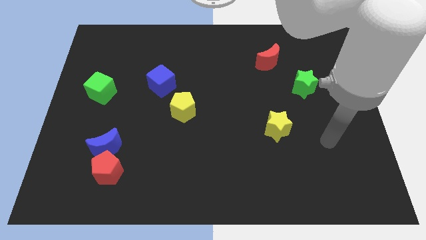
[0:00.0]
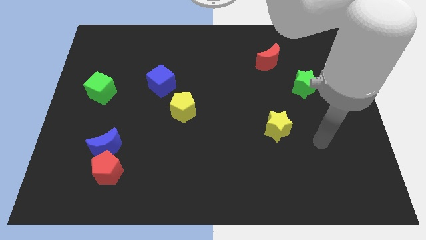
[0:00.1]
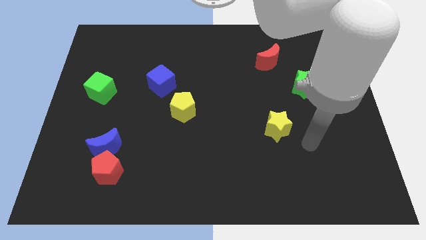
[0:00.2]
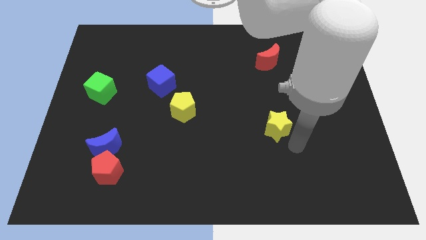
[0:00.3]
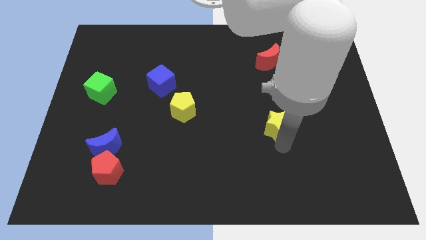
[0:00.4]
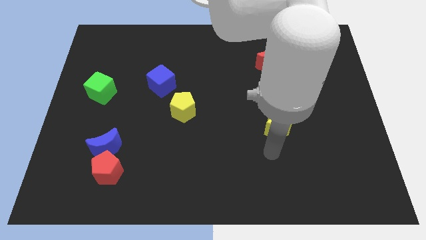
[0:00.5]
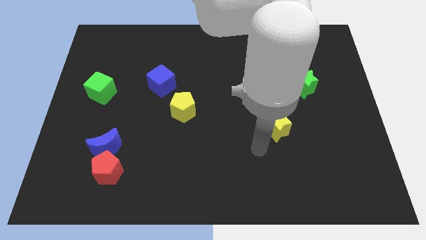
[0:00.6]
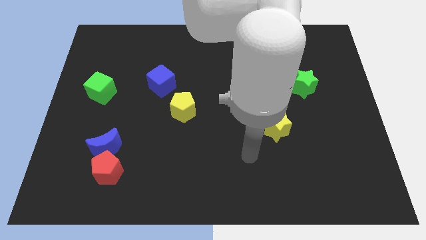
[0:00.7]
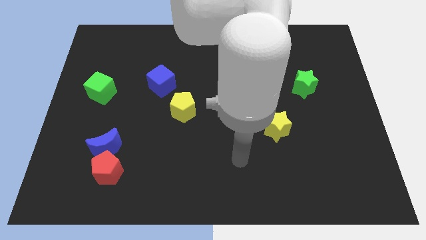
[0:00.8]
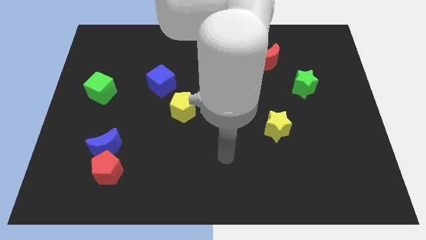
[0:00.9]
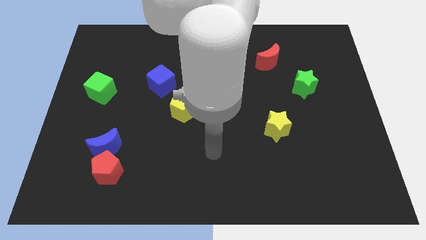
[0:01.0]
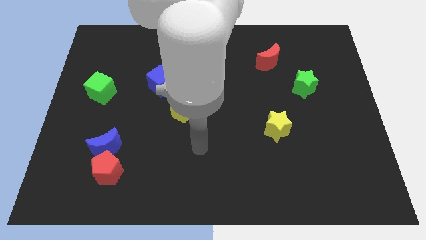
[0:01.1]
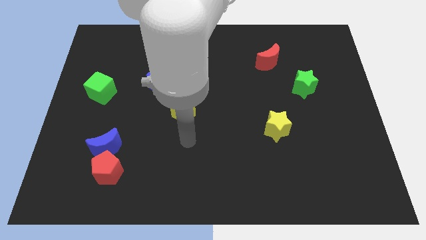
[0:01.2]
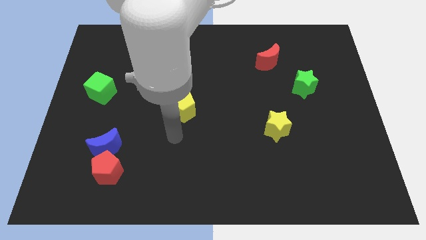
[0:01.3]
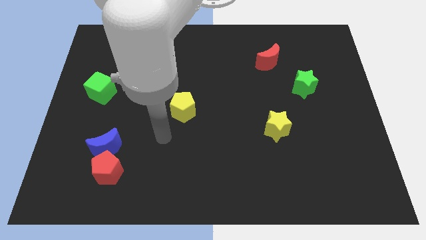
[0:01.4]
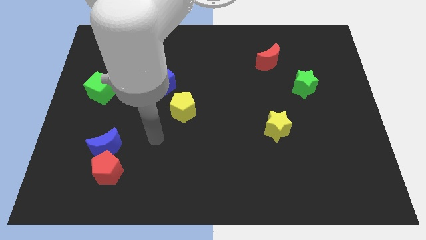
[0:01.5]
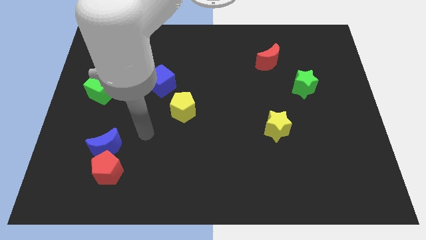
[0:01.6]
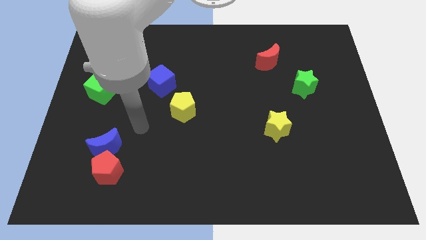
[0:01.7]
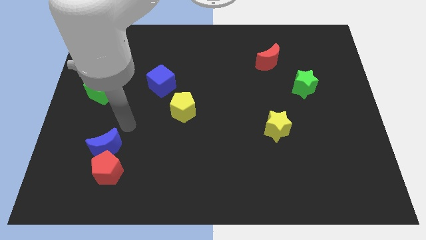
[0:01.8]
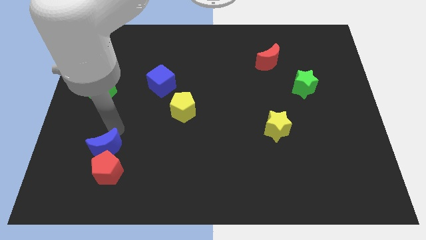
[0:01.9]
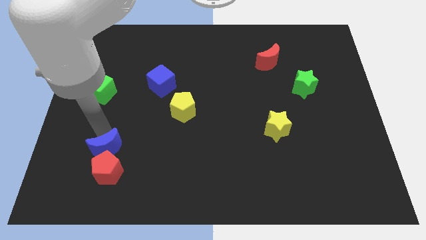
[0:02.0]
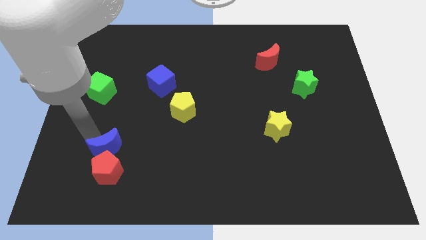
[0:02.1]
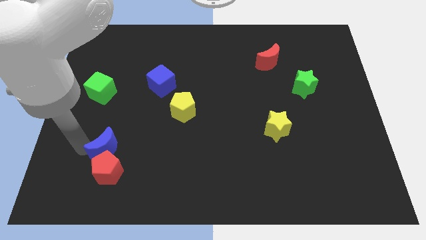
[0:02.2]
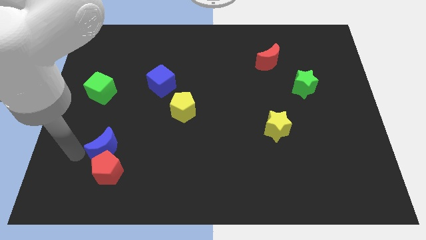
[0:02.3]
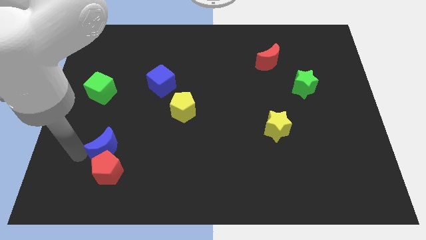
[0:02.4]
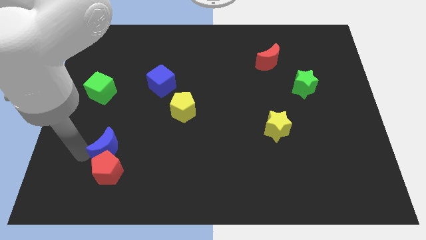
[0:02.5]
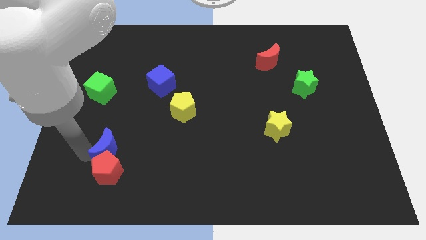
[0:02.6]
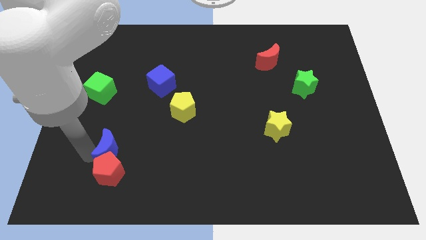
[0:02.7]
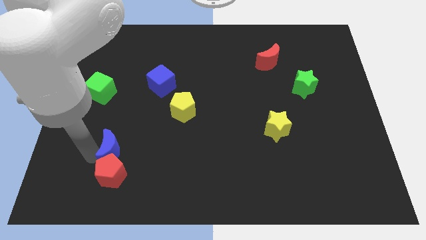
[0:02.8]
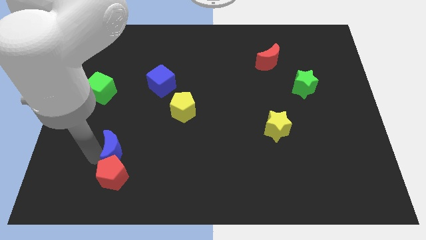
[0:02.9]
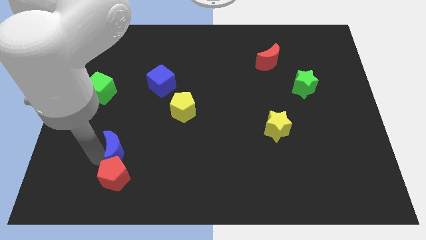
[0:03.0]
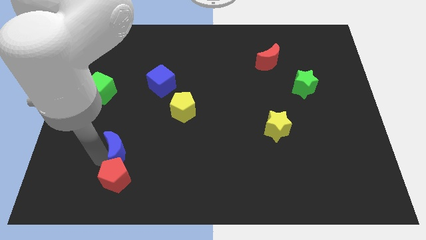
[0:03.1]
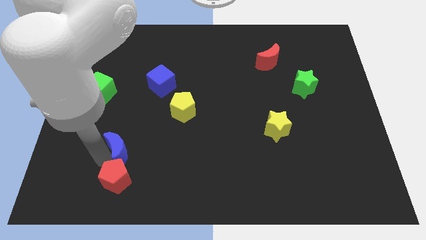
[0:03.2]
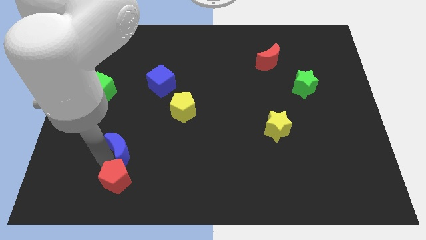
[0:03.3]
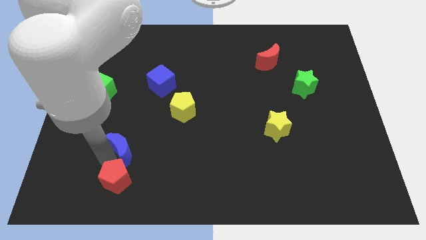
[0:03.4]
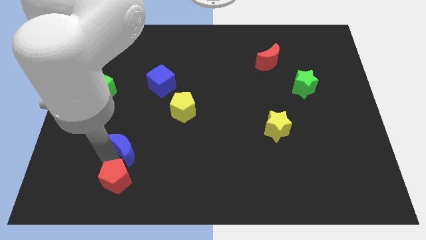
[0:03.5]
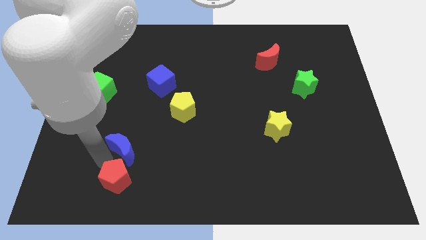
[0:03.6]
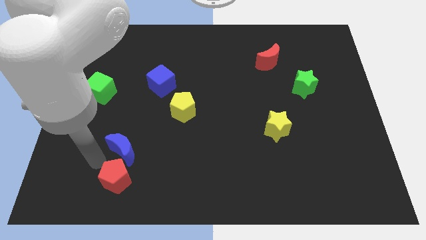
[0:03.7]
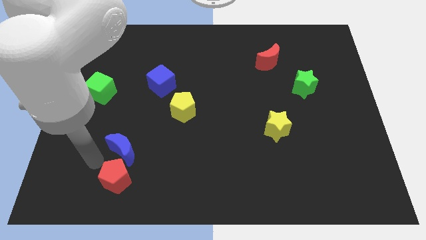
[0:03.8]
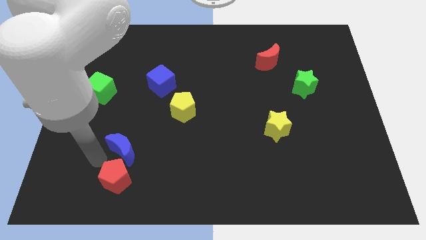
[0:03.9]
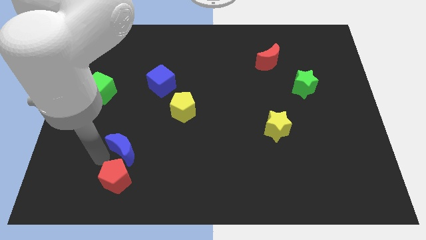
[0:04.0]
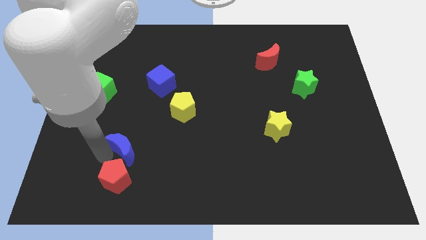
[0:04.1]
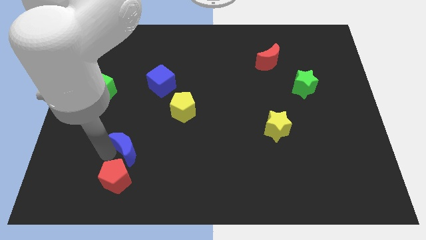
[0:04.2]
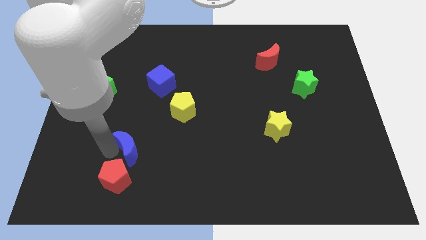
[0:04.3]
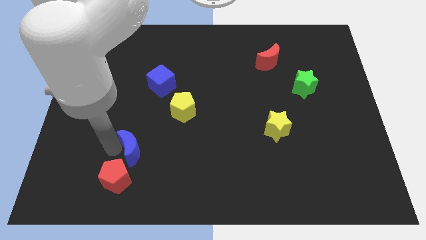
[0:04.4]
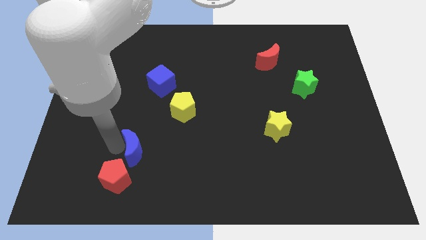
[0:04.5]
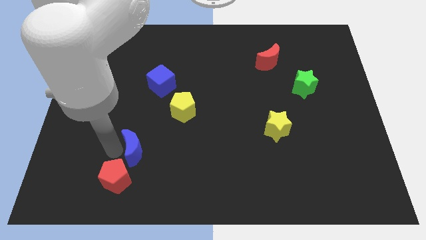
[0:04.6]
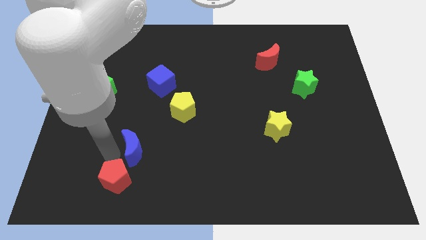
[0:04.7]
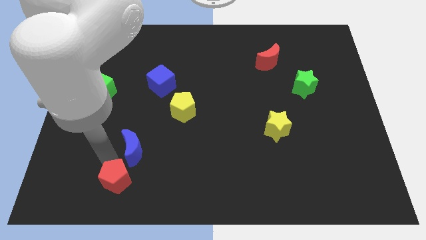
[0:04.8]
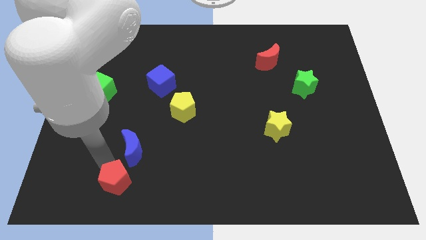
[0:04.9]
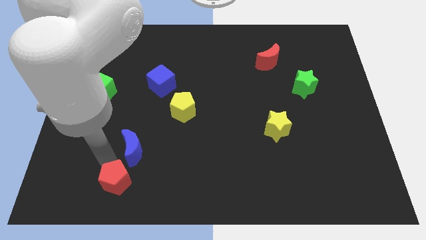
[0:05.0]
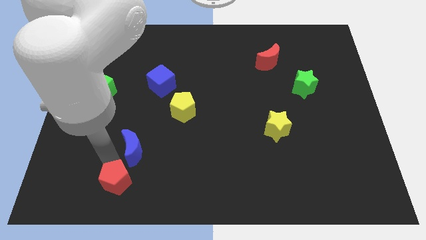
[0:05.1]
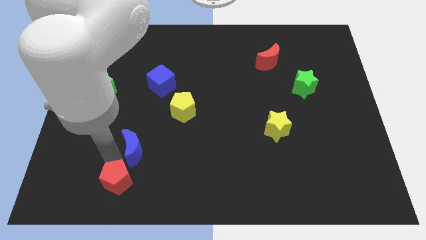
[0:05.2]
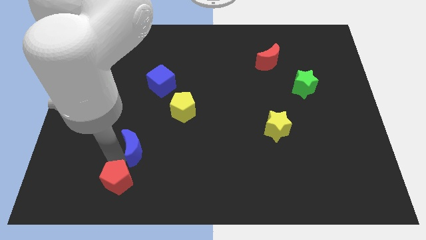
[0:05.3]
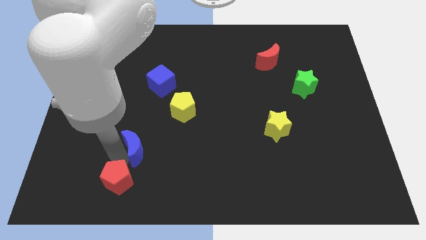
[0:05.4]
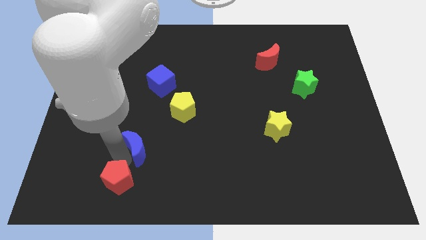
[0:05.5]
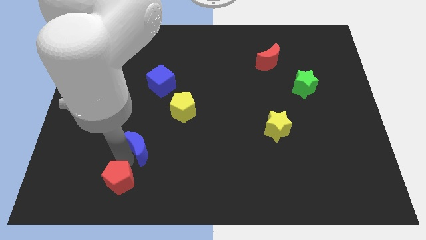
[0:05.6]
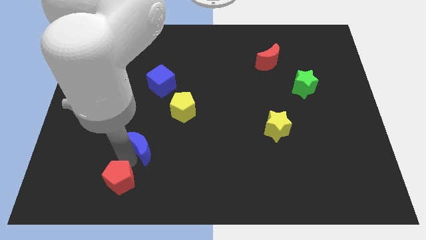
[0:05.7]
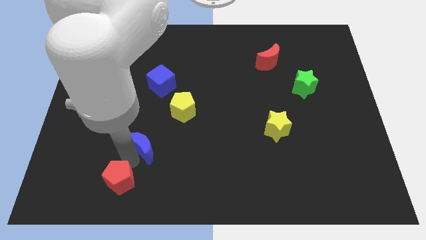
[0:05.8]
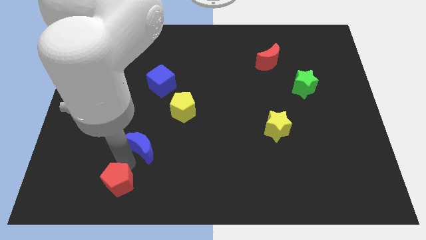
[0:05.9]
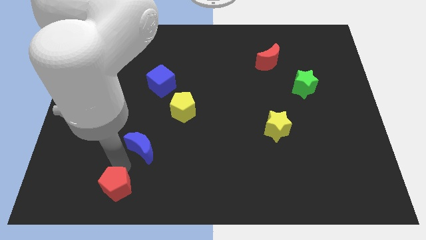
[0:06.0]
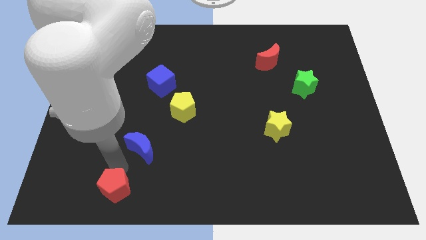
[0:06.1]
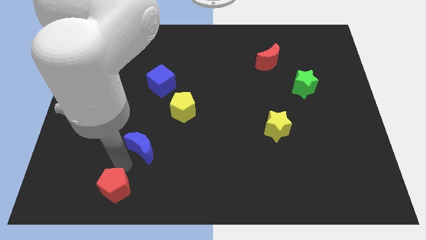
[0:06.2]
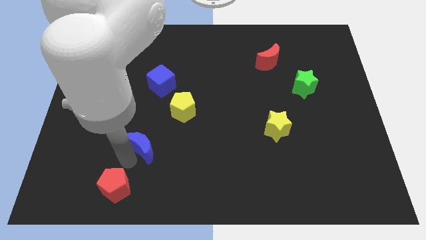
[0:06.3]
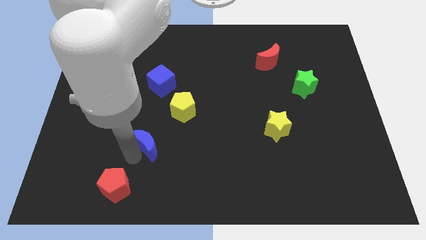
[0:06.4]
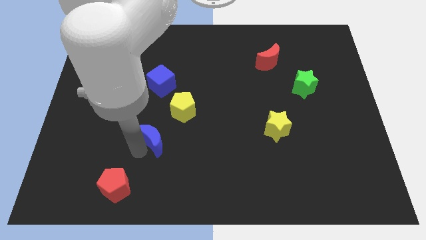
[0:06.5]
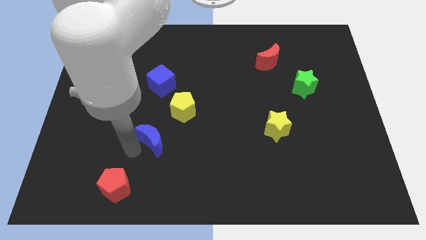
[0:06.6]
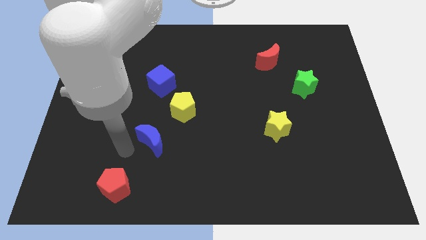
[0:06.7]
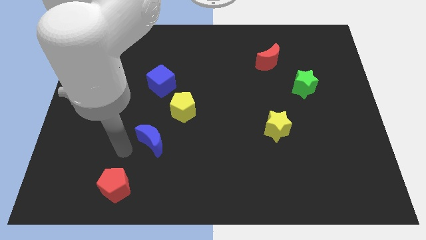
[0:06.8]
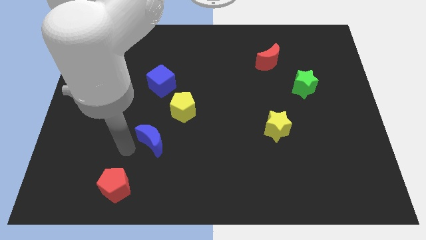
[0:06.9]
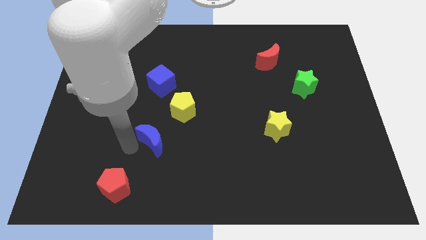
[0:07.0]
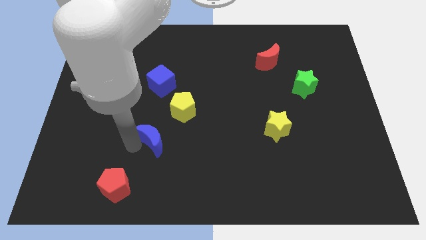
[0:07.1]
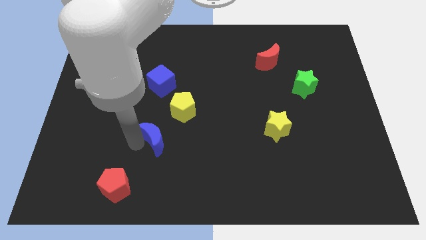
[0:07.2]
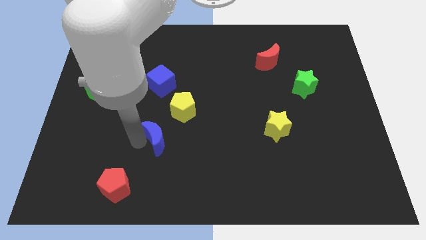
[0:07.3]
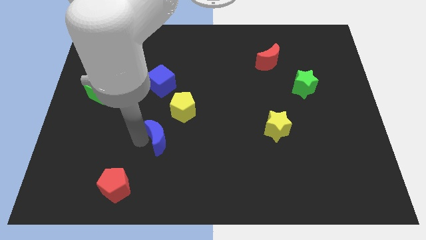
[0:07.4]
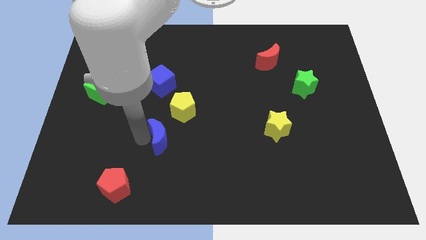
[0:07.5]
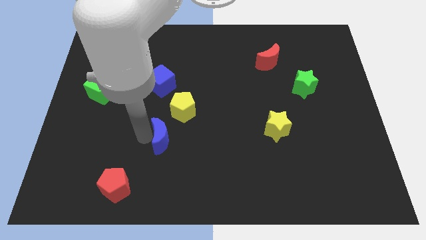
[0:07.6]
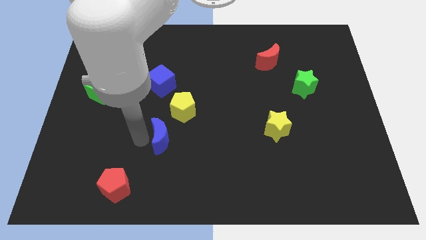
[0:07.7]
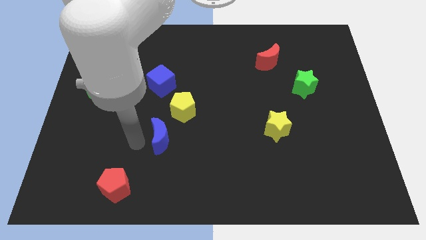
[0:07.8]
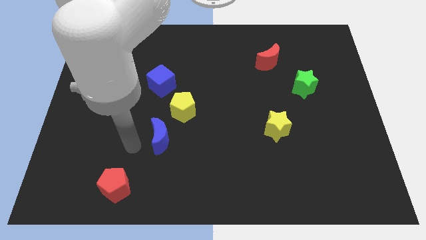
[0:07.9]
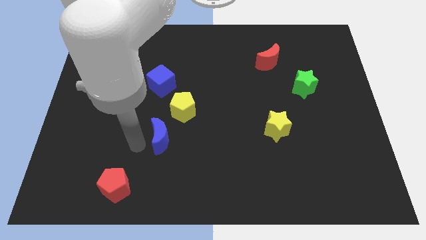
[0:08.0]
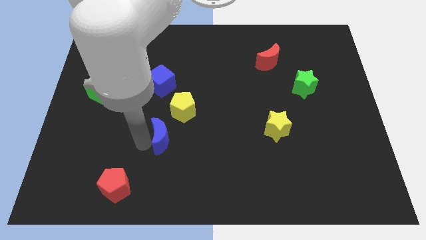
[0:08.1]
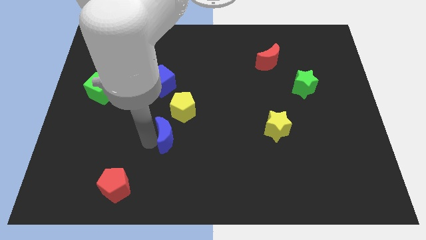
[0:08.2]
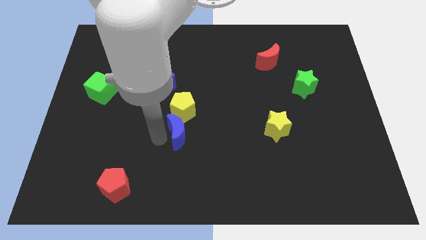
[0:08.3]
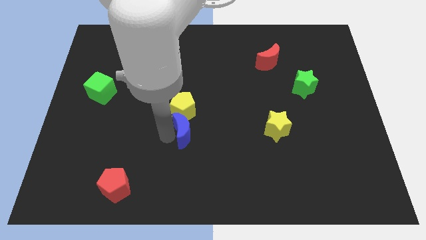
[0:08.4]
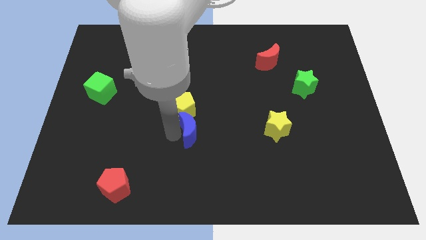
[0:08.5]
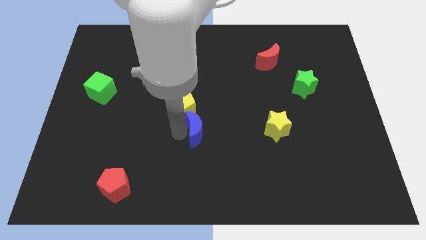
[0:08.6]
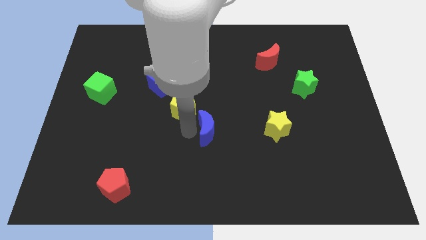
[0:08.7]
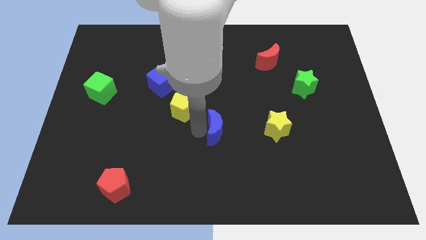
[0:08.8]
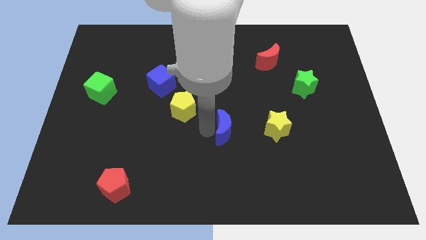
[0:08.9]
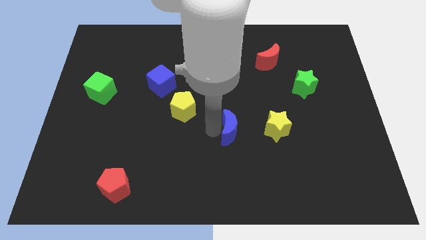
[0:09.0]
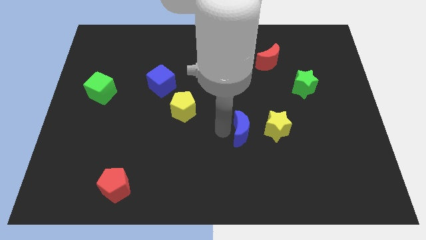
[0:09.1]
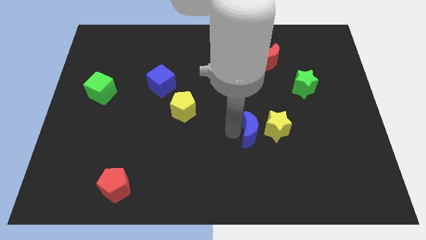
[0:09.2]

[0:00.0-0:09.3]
put the blue moon towards the yellow star
